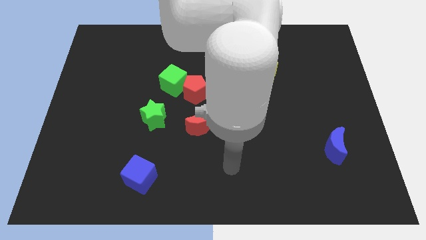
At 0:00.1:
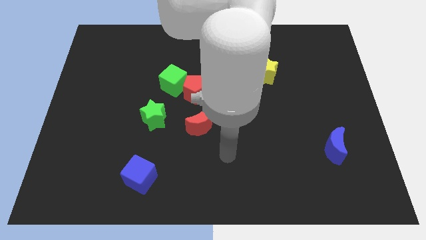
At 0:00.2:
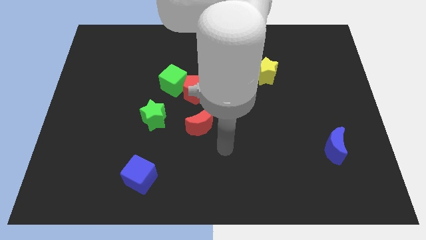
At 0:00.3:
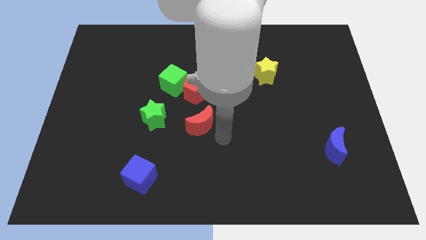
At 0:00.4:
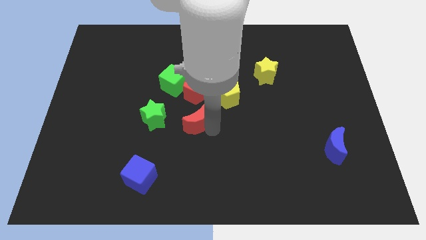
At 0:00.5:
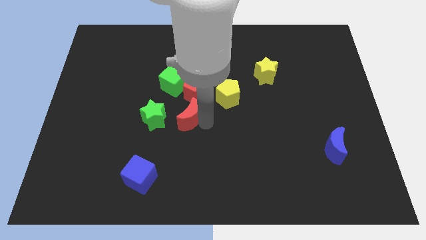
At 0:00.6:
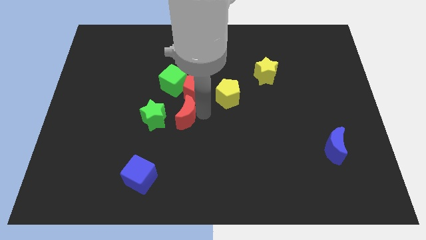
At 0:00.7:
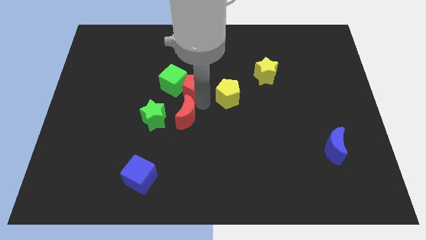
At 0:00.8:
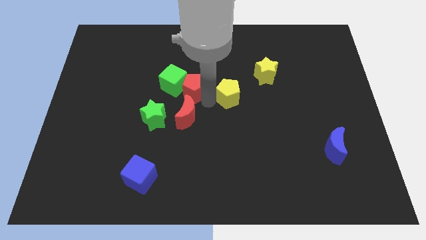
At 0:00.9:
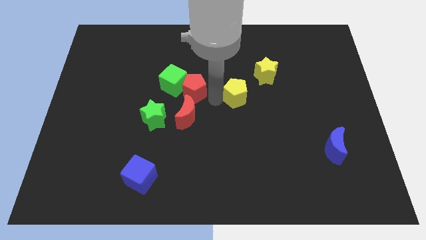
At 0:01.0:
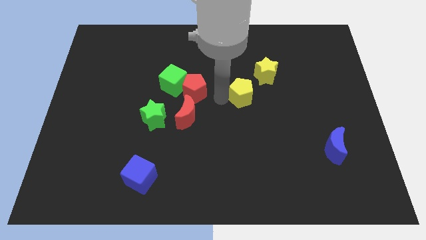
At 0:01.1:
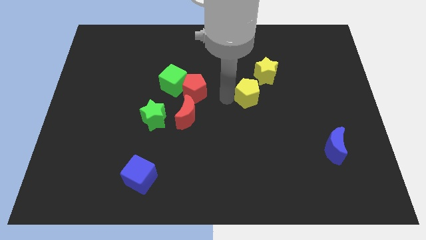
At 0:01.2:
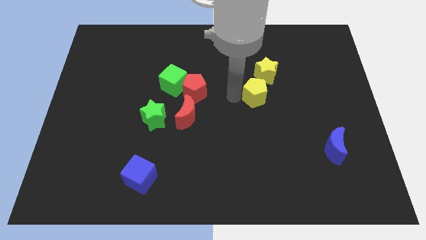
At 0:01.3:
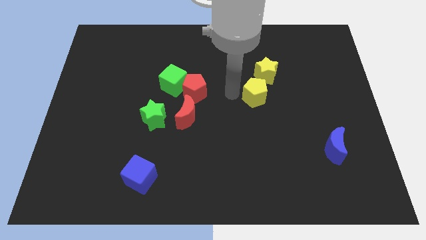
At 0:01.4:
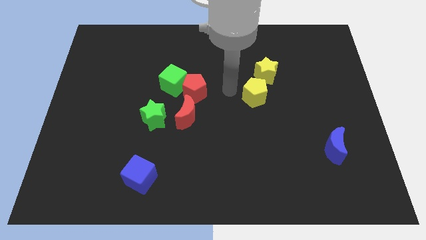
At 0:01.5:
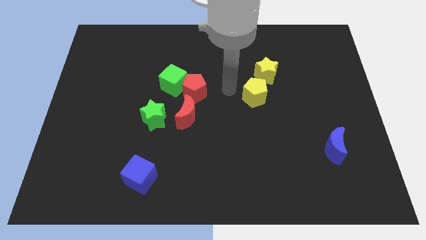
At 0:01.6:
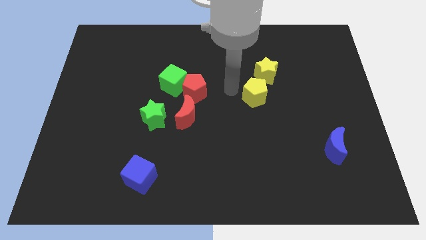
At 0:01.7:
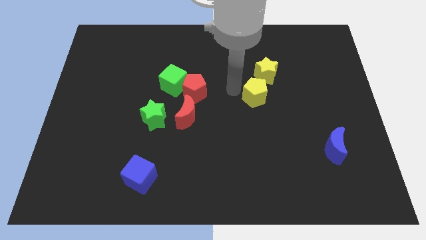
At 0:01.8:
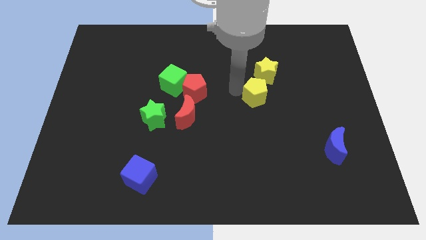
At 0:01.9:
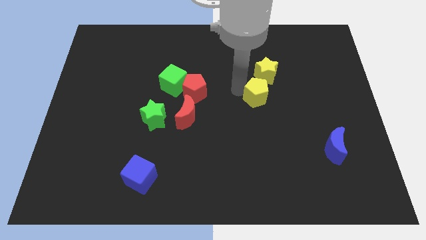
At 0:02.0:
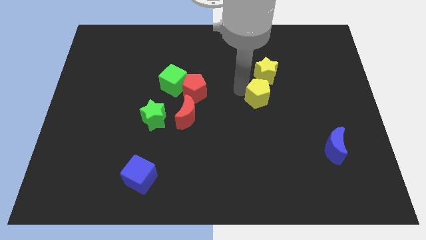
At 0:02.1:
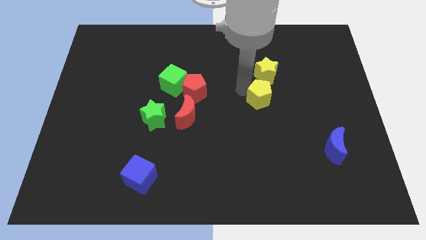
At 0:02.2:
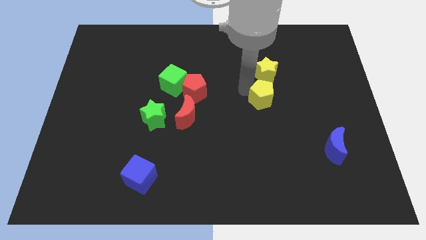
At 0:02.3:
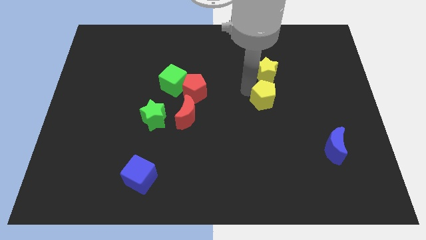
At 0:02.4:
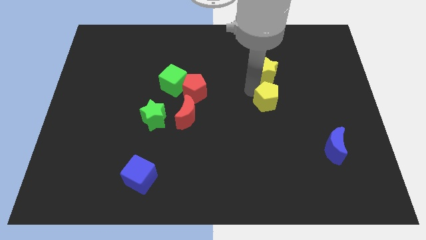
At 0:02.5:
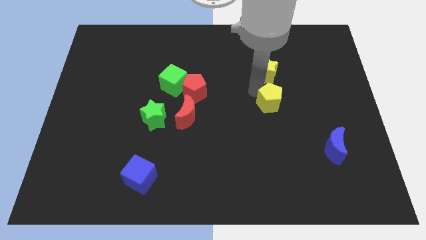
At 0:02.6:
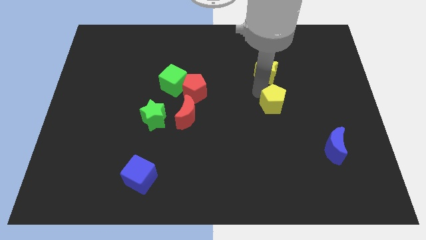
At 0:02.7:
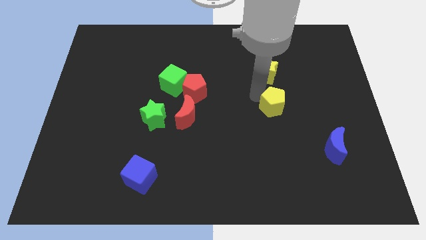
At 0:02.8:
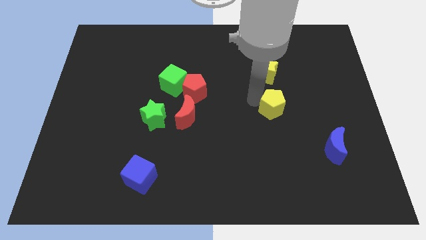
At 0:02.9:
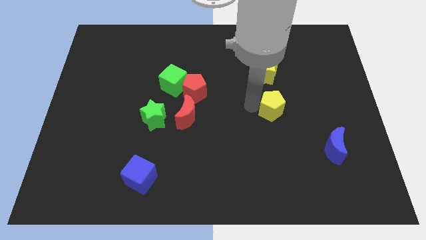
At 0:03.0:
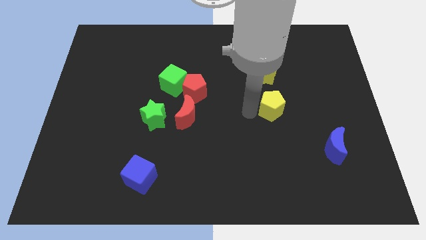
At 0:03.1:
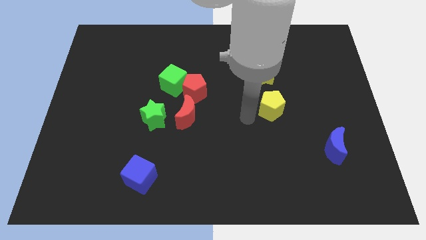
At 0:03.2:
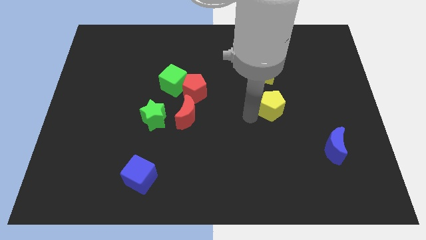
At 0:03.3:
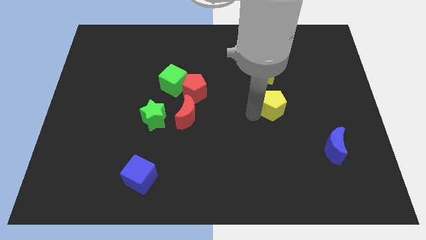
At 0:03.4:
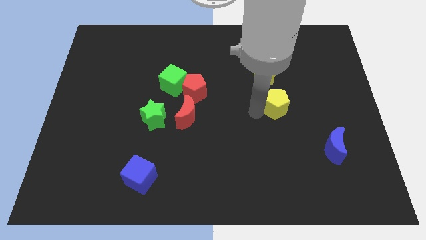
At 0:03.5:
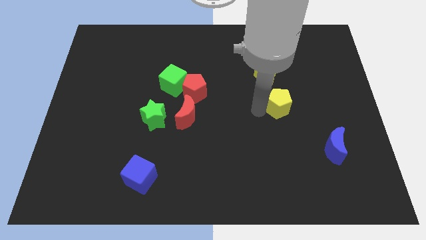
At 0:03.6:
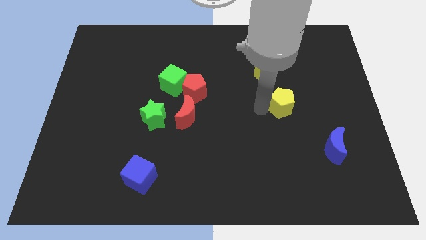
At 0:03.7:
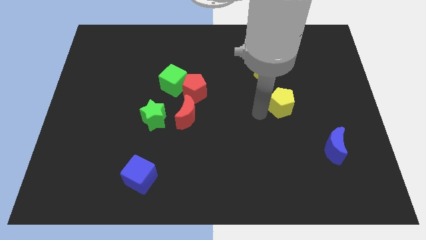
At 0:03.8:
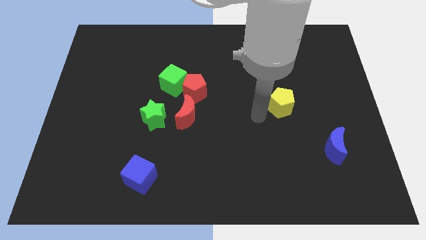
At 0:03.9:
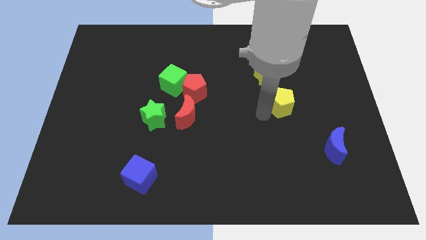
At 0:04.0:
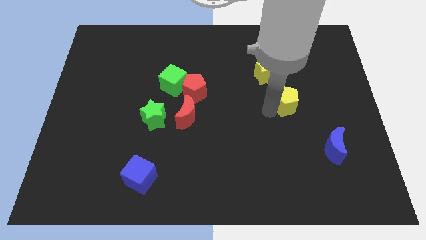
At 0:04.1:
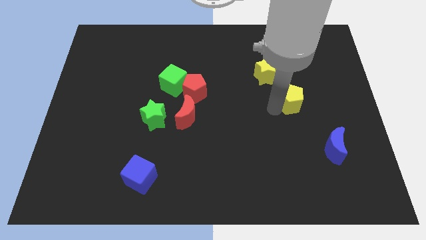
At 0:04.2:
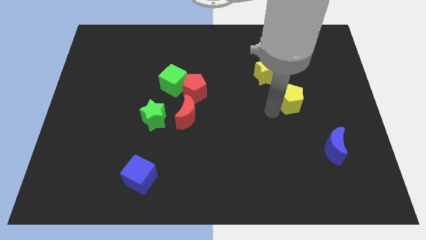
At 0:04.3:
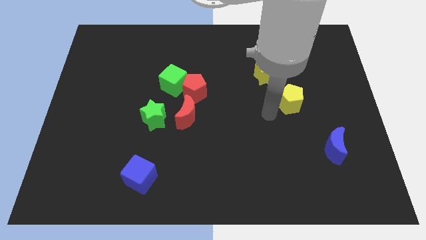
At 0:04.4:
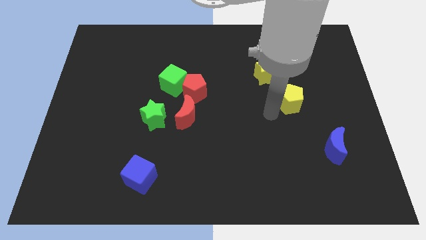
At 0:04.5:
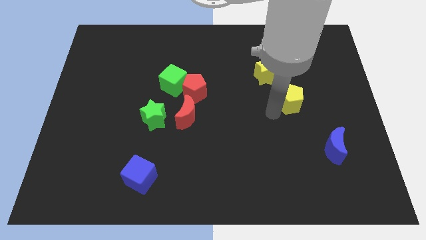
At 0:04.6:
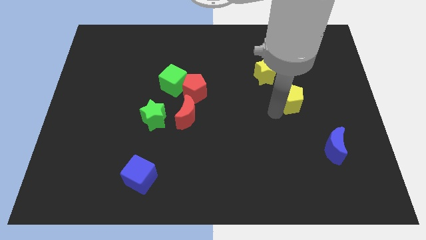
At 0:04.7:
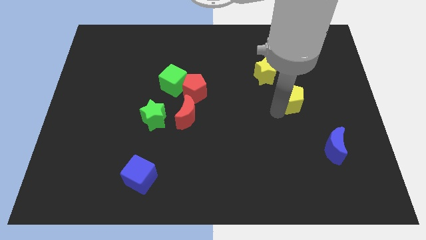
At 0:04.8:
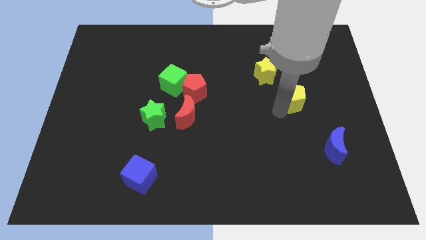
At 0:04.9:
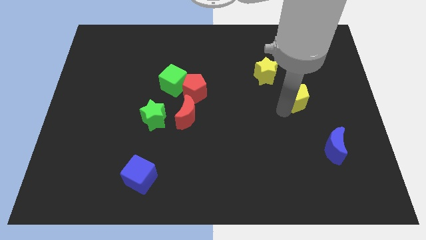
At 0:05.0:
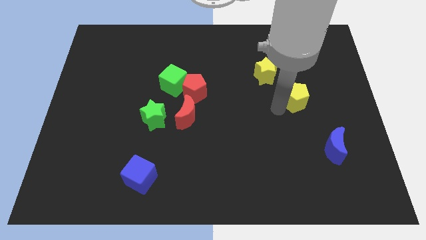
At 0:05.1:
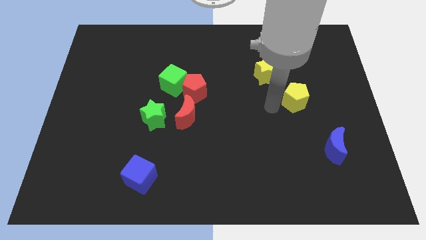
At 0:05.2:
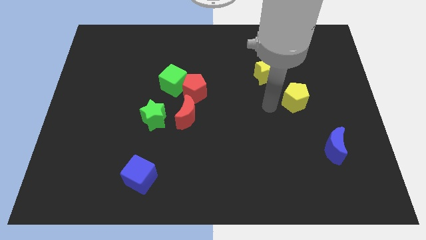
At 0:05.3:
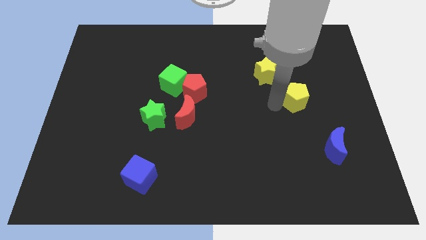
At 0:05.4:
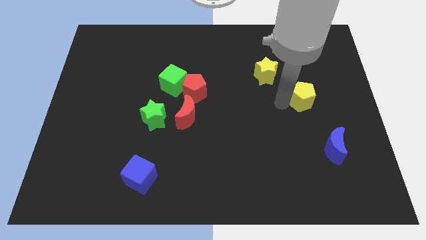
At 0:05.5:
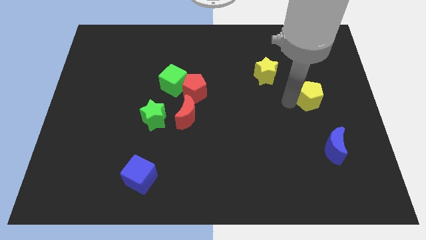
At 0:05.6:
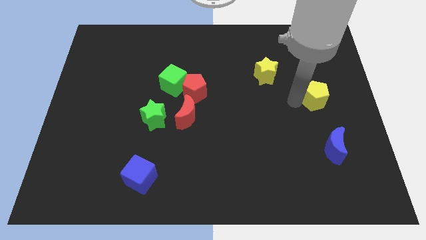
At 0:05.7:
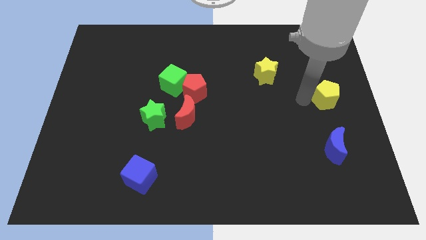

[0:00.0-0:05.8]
push the yellow pentagon to the right side

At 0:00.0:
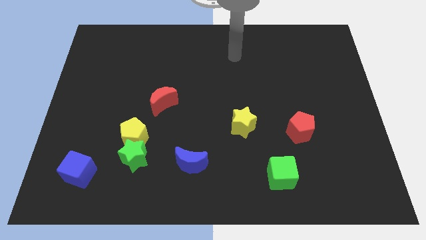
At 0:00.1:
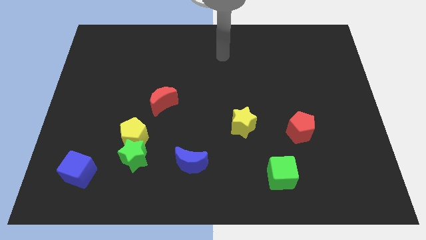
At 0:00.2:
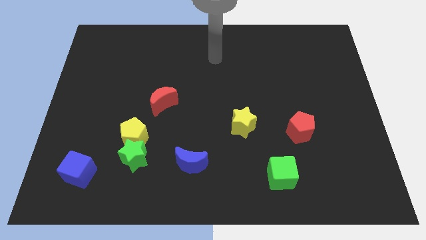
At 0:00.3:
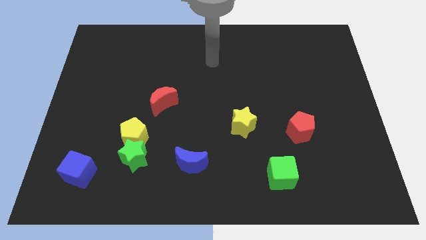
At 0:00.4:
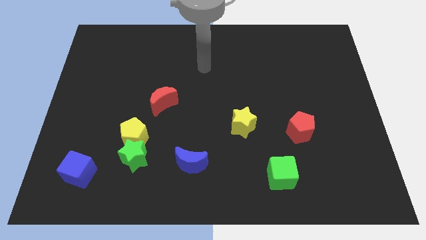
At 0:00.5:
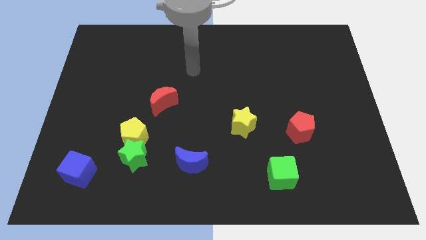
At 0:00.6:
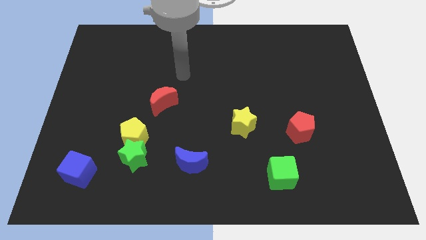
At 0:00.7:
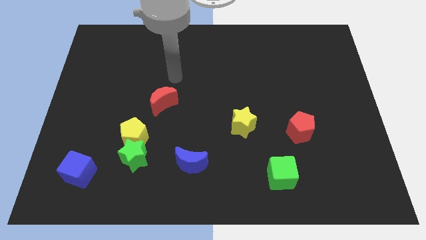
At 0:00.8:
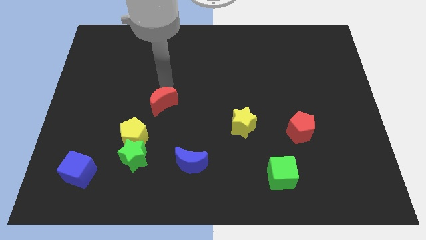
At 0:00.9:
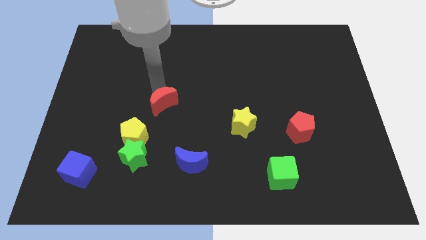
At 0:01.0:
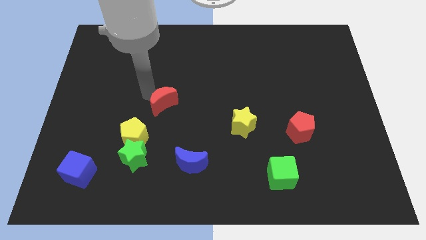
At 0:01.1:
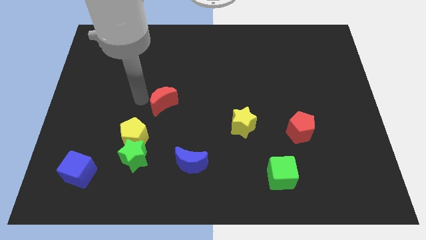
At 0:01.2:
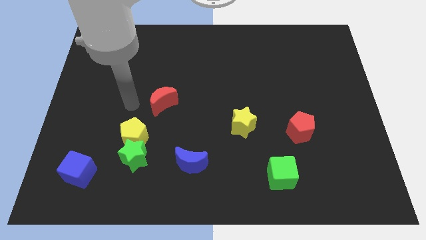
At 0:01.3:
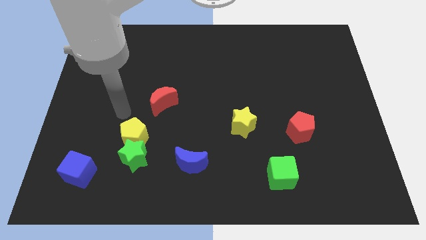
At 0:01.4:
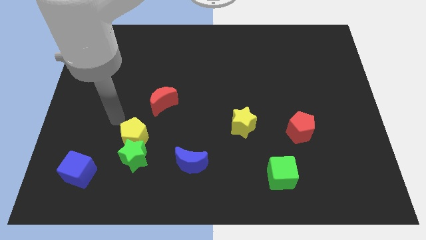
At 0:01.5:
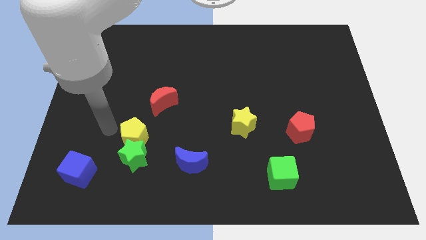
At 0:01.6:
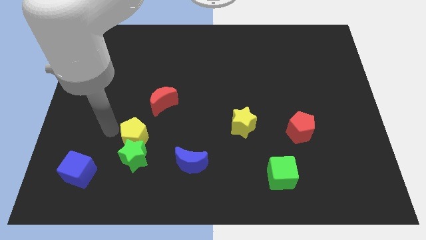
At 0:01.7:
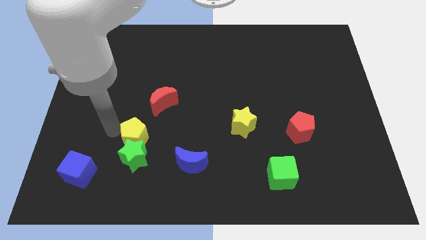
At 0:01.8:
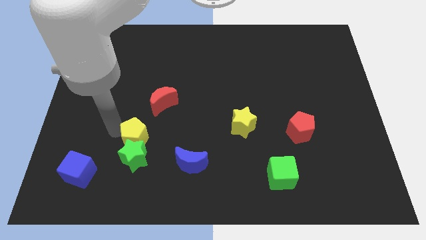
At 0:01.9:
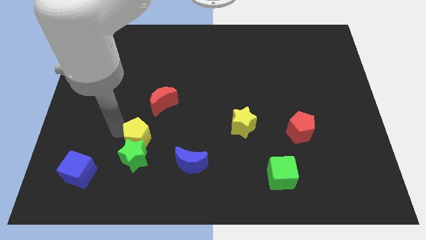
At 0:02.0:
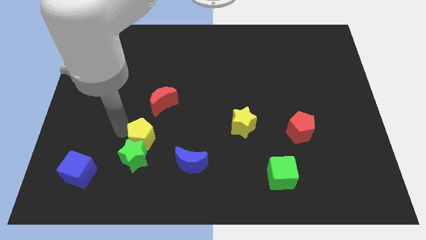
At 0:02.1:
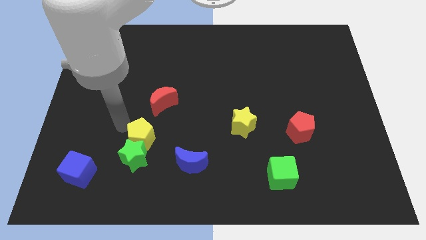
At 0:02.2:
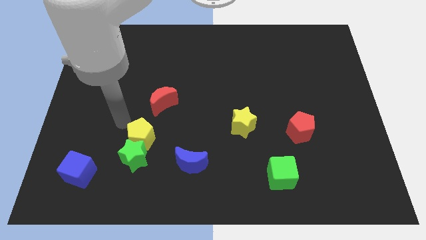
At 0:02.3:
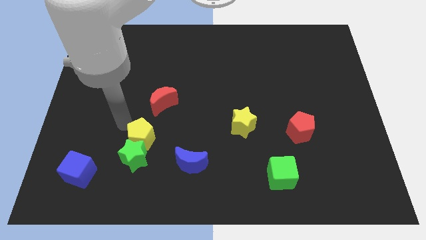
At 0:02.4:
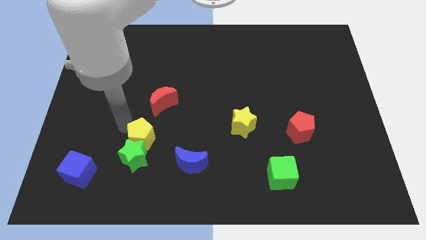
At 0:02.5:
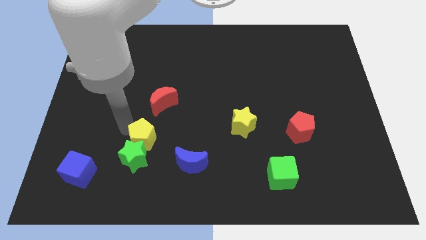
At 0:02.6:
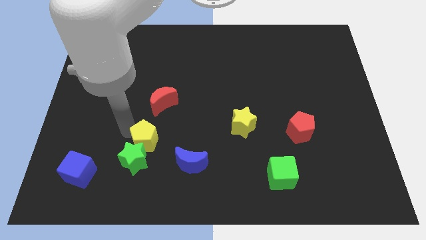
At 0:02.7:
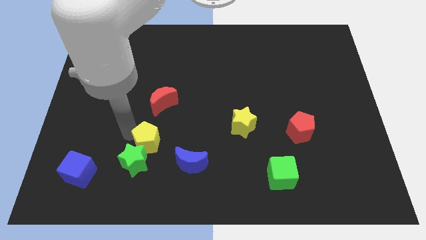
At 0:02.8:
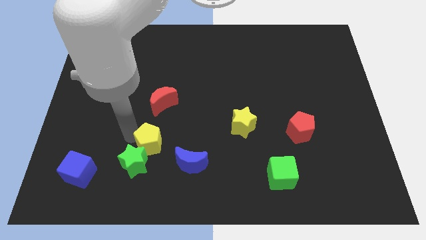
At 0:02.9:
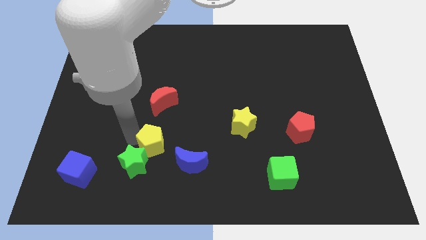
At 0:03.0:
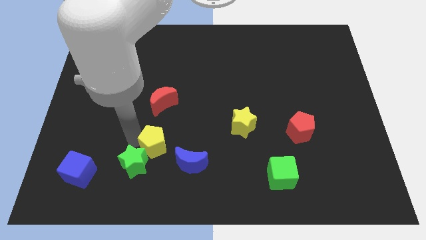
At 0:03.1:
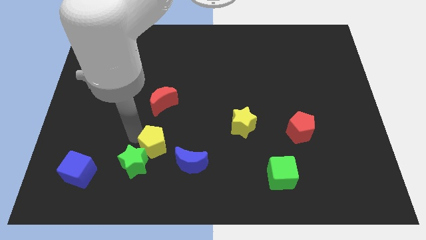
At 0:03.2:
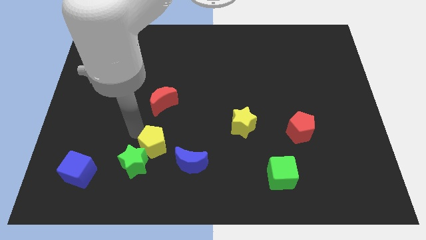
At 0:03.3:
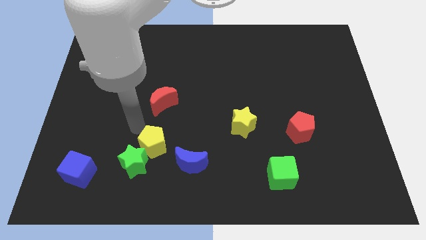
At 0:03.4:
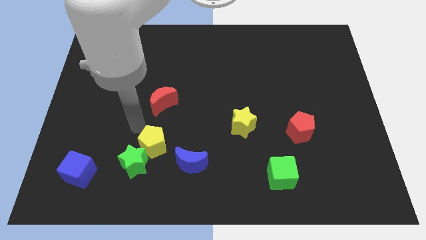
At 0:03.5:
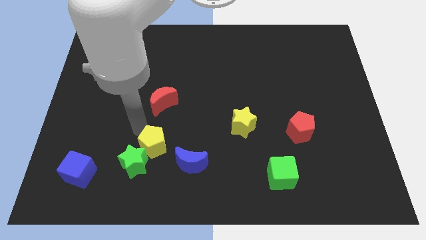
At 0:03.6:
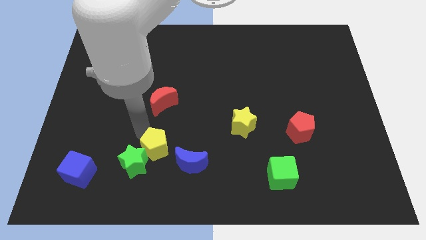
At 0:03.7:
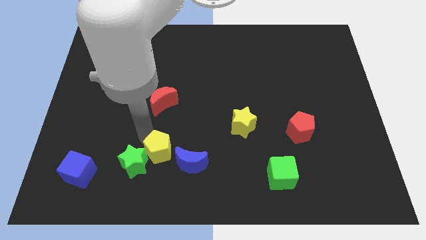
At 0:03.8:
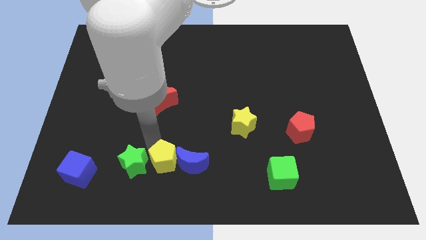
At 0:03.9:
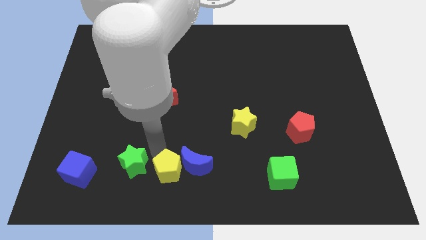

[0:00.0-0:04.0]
slide the yellow pentagon to the bottom side
